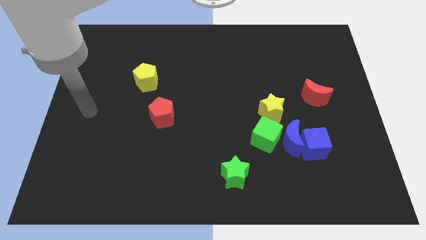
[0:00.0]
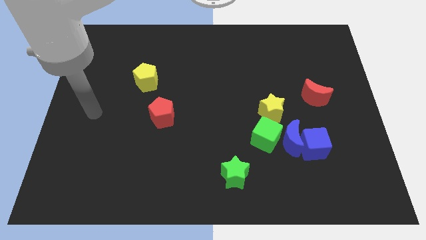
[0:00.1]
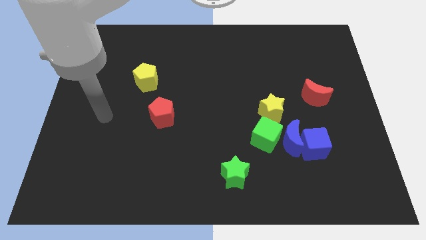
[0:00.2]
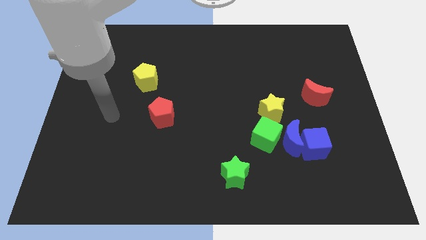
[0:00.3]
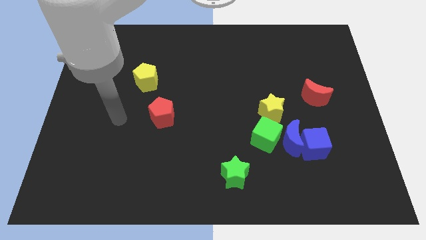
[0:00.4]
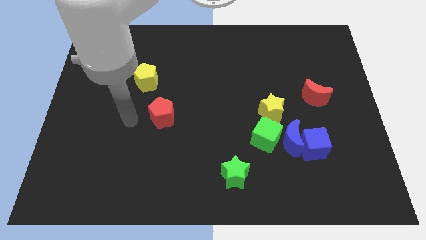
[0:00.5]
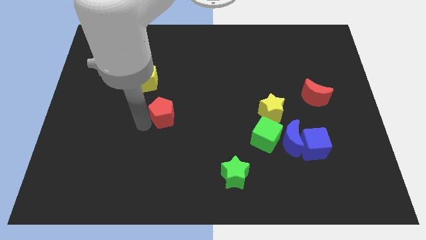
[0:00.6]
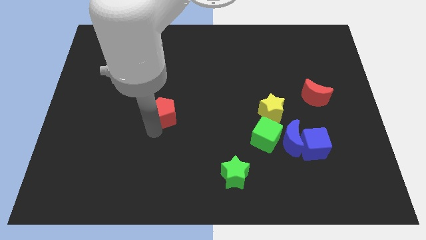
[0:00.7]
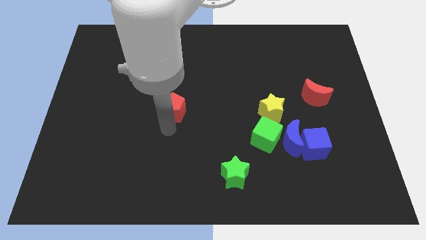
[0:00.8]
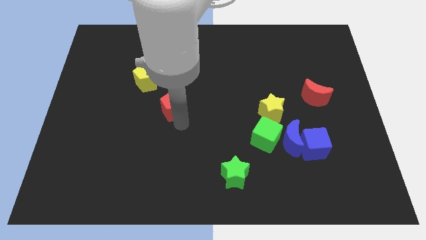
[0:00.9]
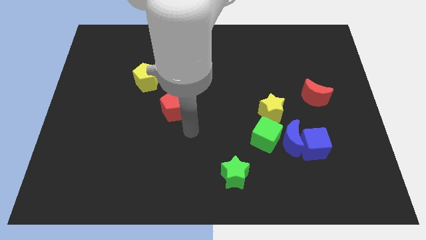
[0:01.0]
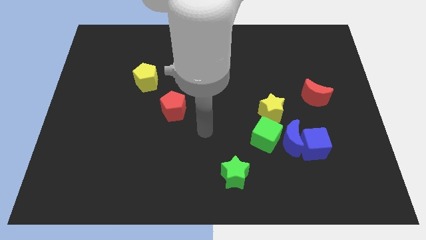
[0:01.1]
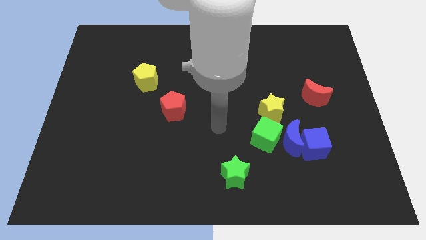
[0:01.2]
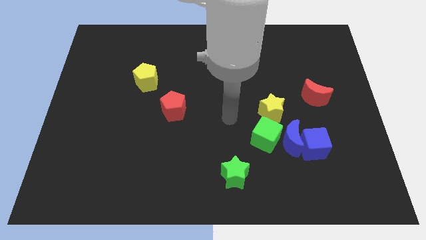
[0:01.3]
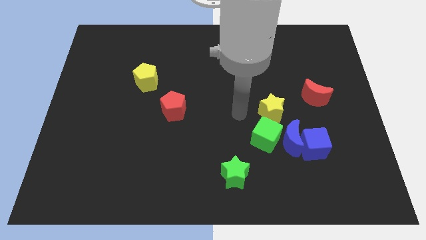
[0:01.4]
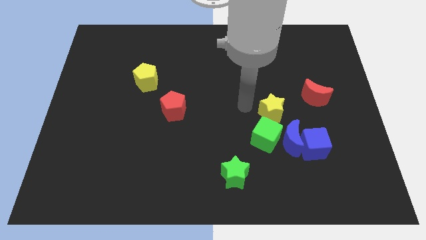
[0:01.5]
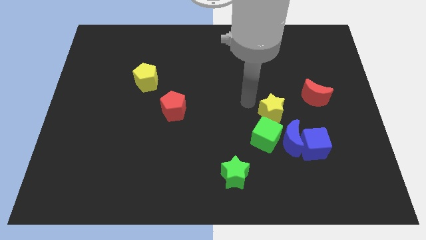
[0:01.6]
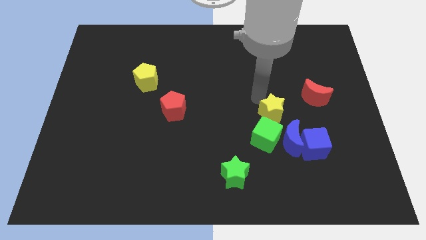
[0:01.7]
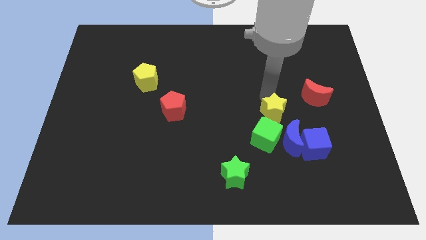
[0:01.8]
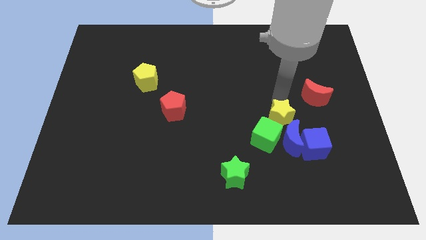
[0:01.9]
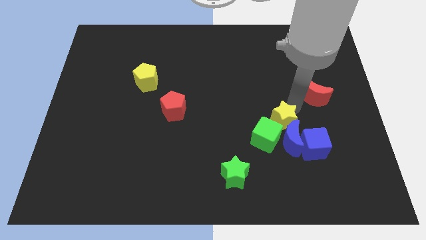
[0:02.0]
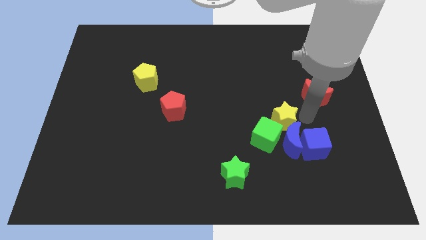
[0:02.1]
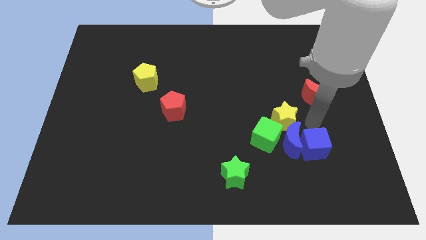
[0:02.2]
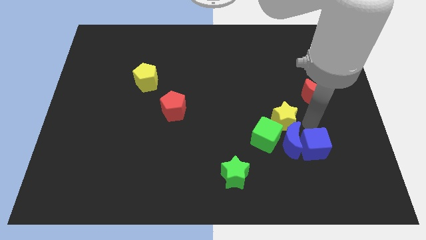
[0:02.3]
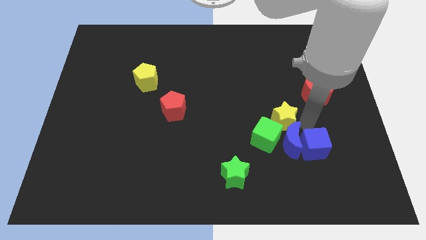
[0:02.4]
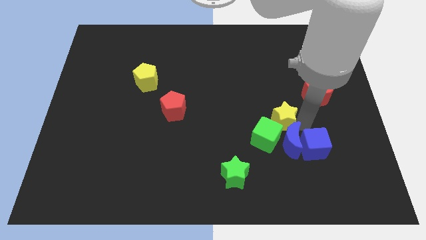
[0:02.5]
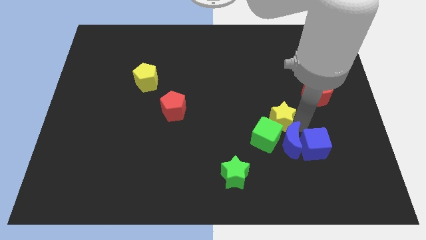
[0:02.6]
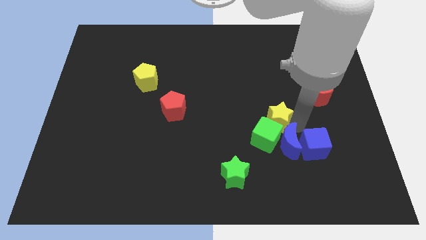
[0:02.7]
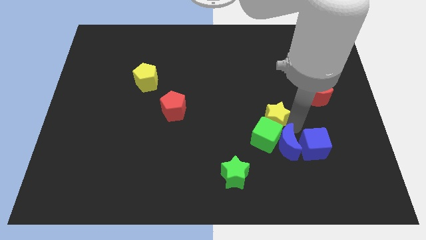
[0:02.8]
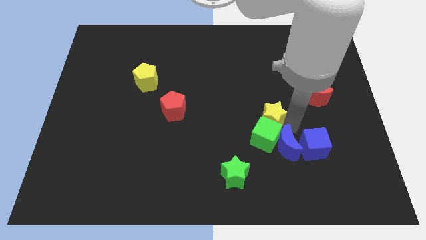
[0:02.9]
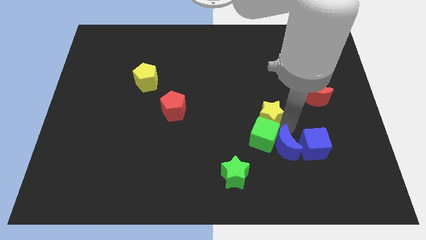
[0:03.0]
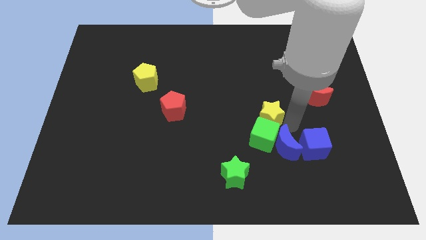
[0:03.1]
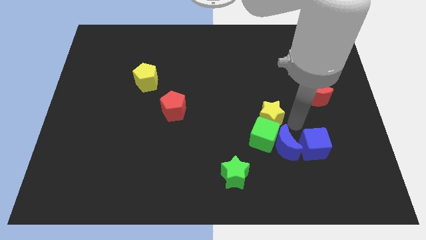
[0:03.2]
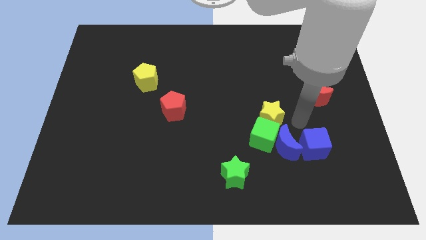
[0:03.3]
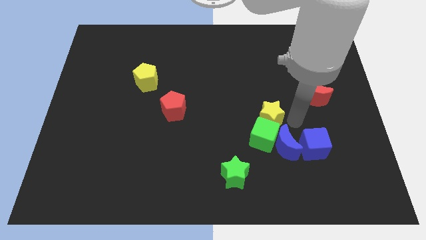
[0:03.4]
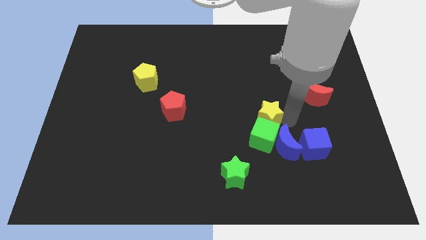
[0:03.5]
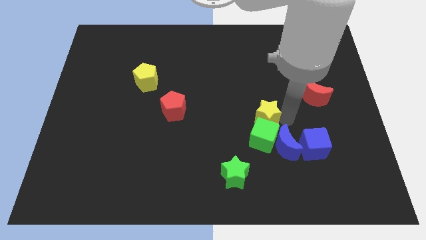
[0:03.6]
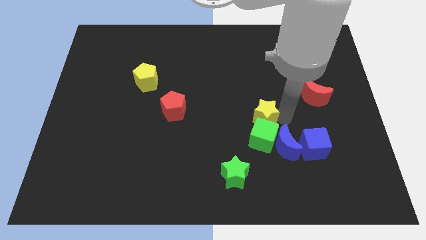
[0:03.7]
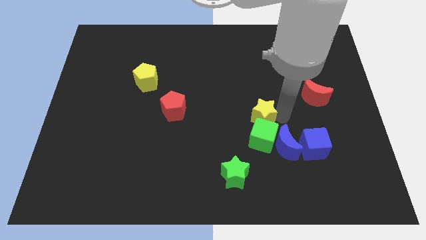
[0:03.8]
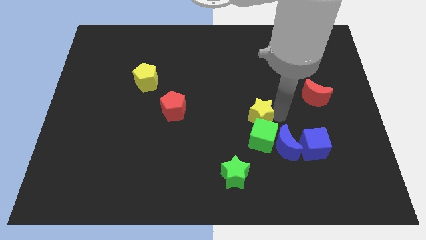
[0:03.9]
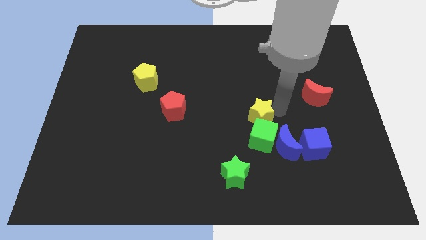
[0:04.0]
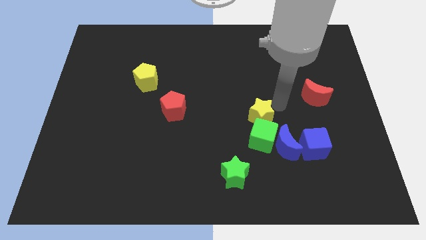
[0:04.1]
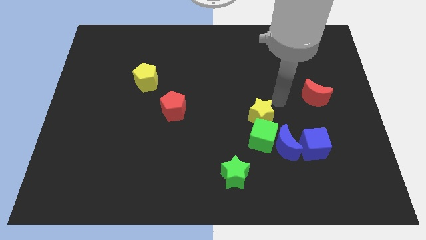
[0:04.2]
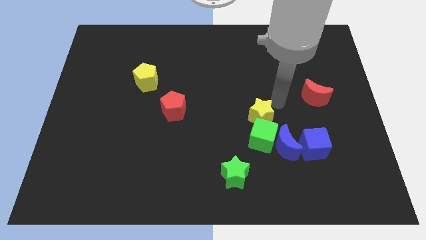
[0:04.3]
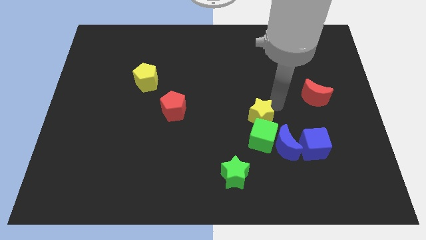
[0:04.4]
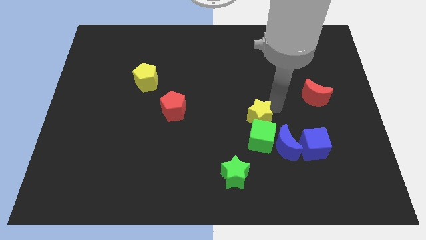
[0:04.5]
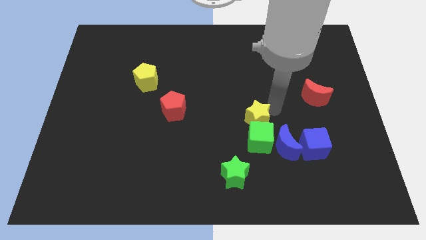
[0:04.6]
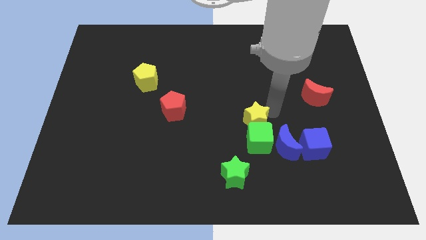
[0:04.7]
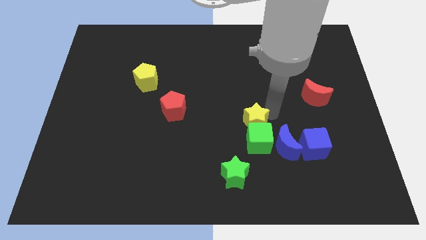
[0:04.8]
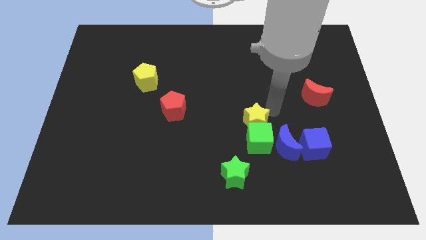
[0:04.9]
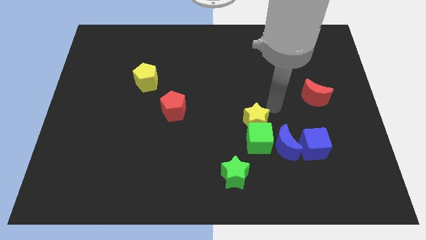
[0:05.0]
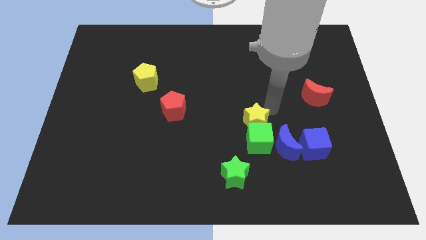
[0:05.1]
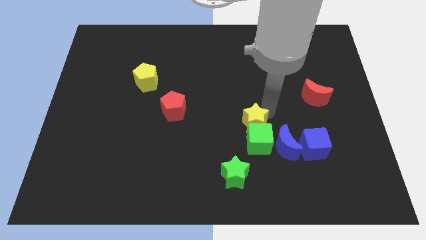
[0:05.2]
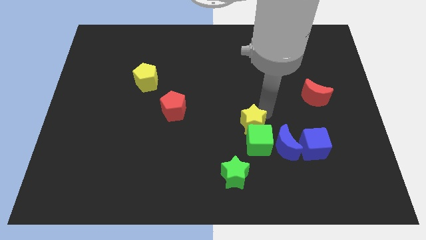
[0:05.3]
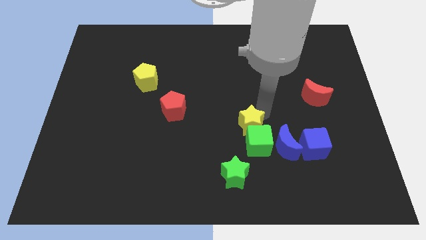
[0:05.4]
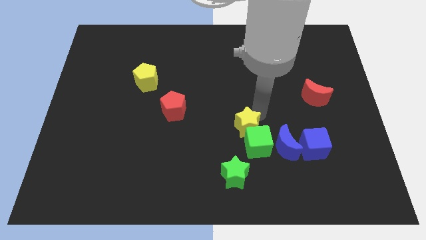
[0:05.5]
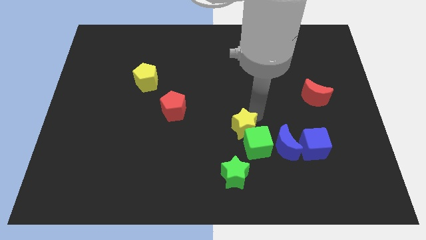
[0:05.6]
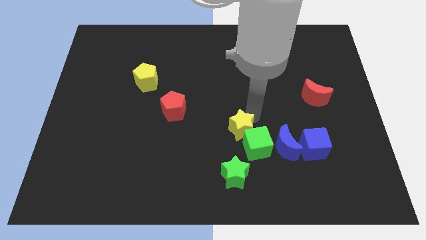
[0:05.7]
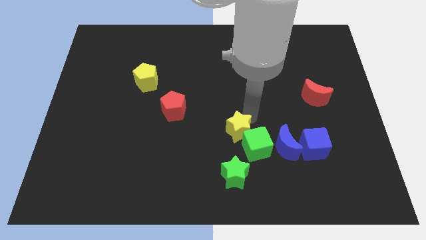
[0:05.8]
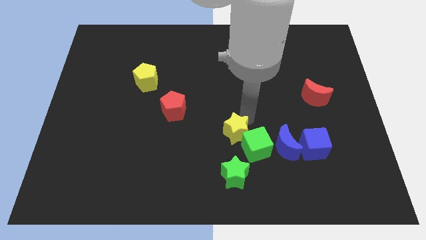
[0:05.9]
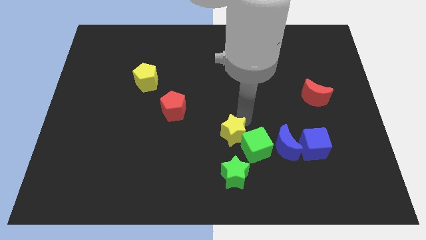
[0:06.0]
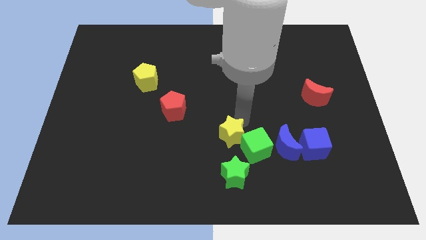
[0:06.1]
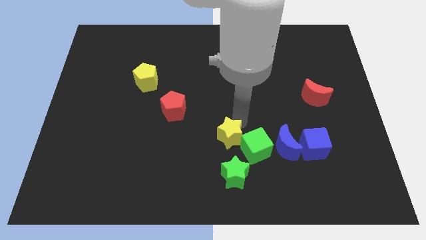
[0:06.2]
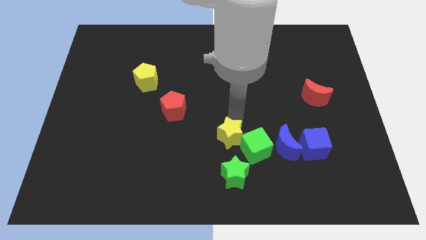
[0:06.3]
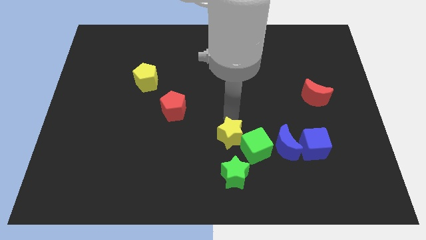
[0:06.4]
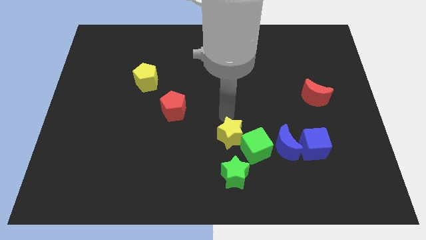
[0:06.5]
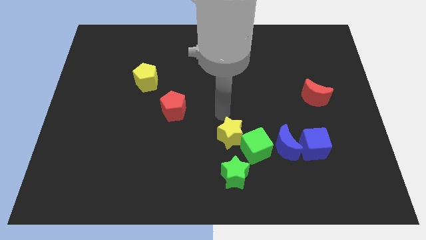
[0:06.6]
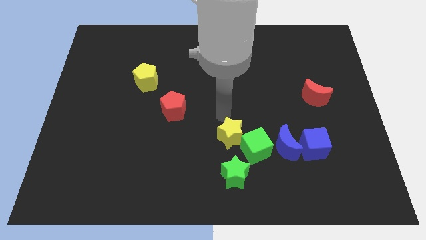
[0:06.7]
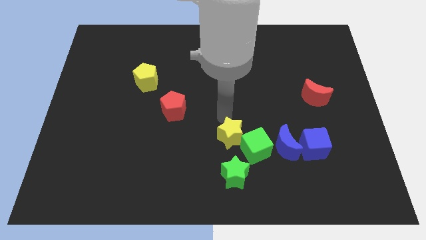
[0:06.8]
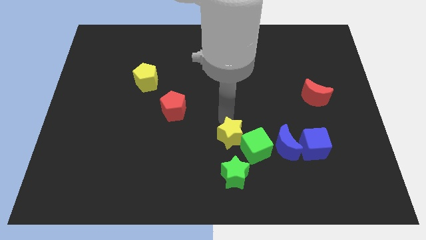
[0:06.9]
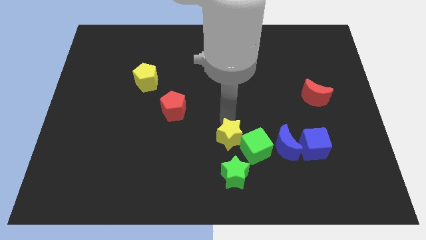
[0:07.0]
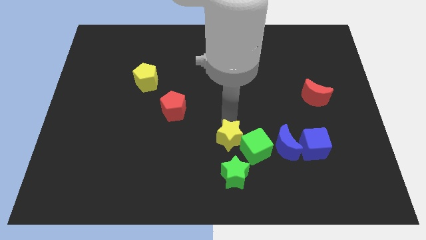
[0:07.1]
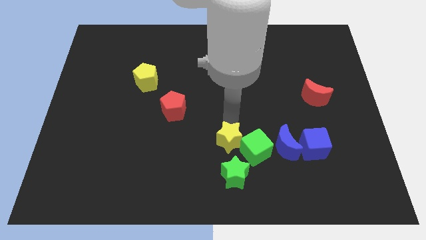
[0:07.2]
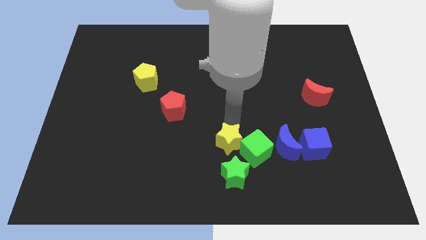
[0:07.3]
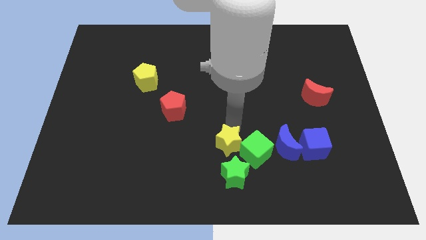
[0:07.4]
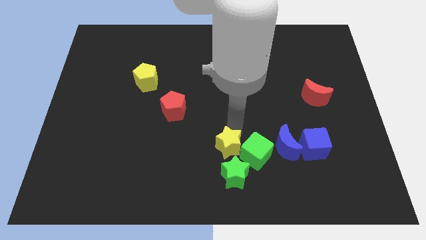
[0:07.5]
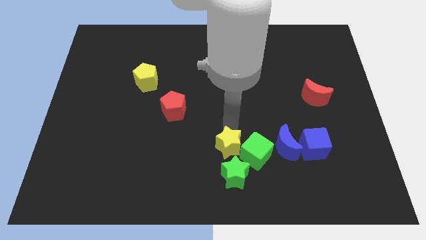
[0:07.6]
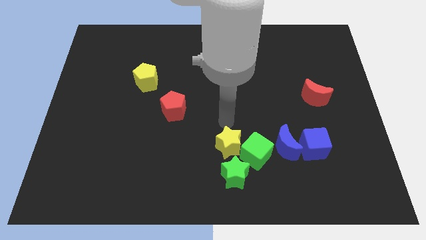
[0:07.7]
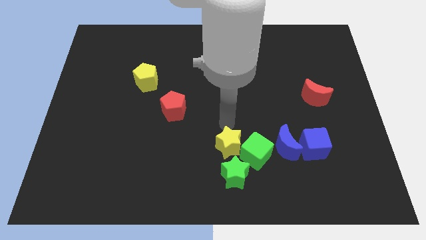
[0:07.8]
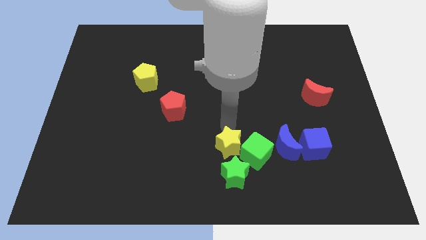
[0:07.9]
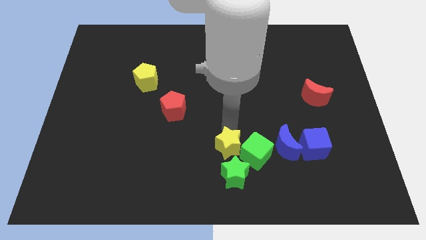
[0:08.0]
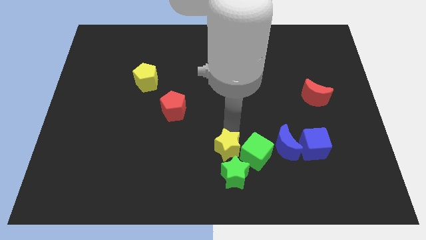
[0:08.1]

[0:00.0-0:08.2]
move the yellow star close to the green star
